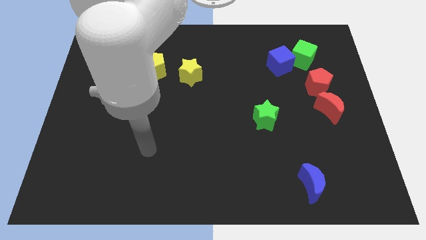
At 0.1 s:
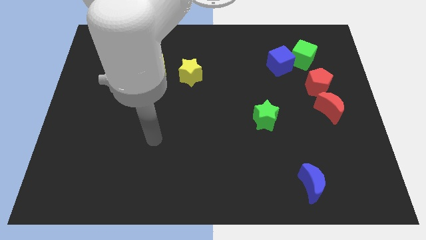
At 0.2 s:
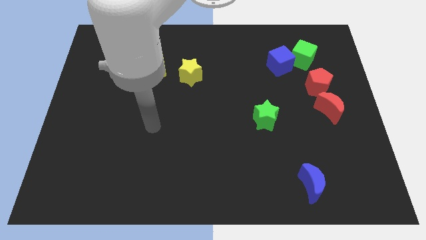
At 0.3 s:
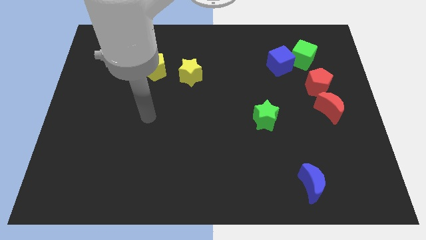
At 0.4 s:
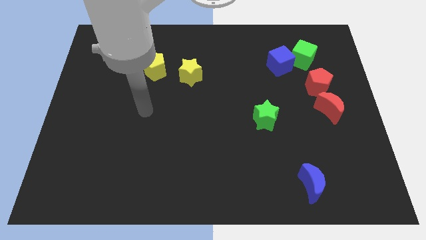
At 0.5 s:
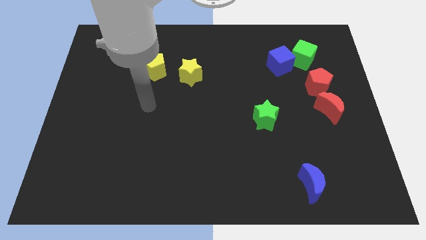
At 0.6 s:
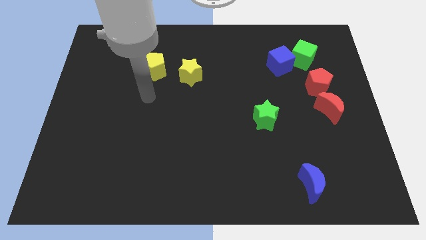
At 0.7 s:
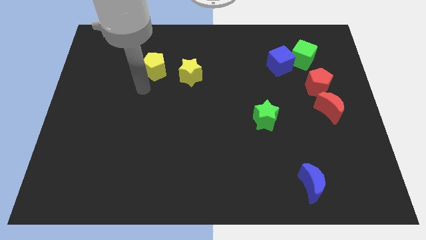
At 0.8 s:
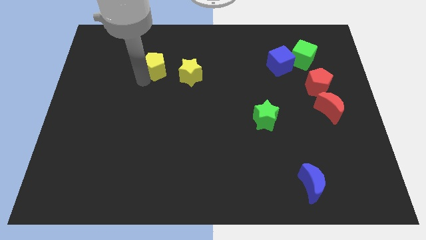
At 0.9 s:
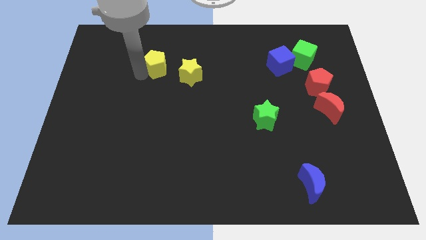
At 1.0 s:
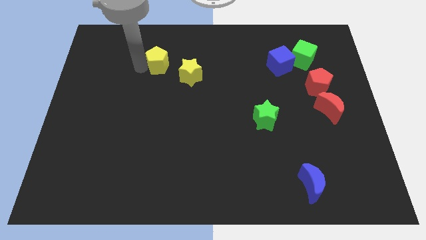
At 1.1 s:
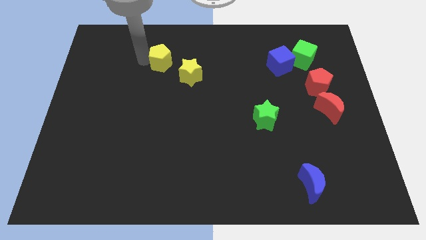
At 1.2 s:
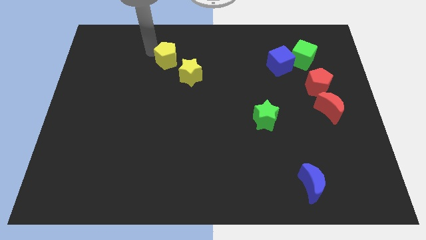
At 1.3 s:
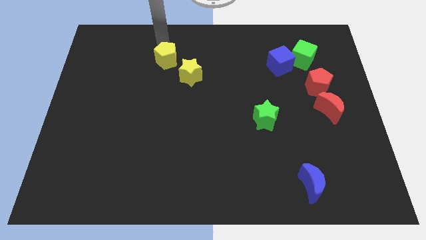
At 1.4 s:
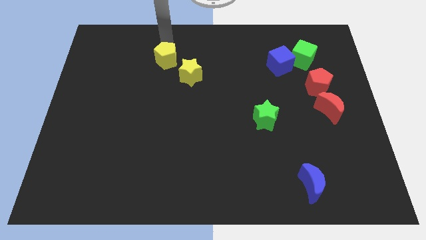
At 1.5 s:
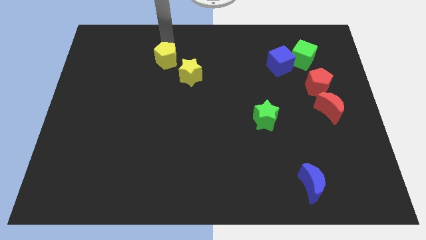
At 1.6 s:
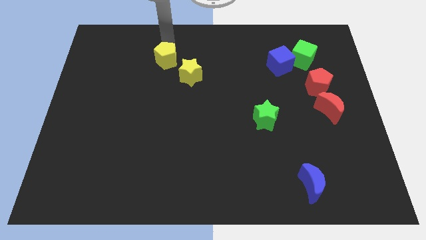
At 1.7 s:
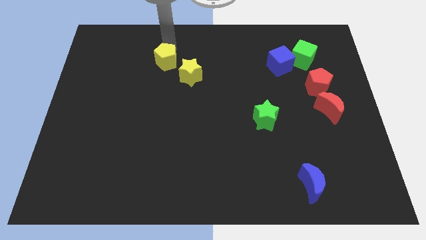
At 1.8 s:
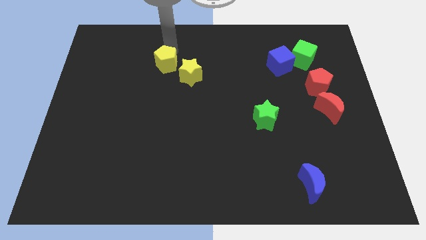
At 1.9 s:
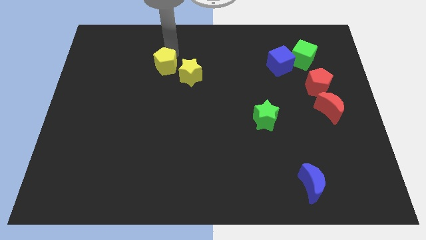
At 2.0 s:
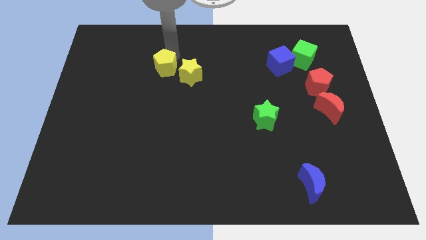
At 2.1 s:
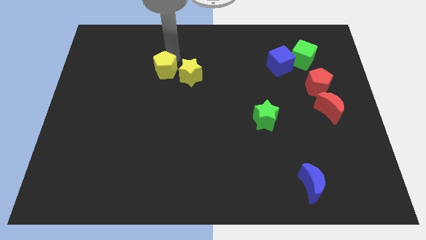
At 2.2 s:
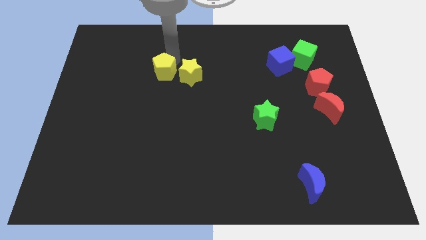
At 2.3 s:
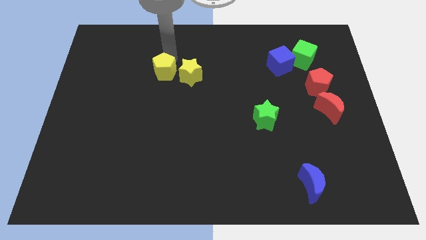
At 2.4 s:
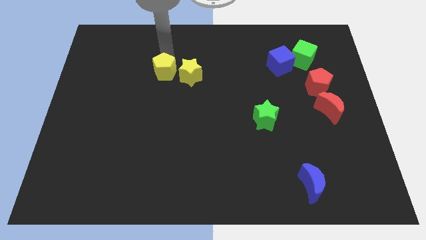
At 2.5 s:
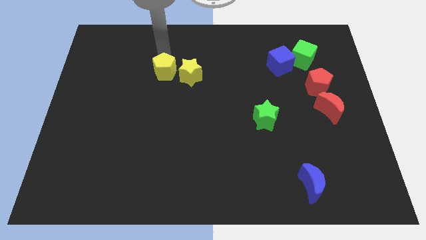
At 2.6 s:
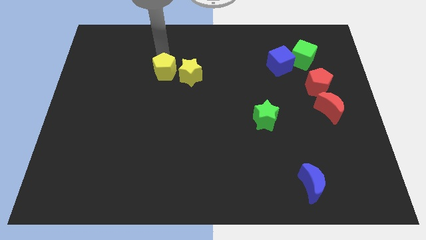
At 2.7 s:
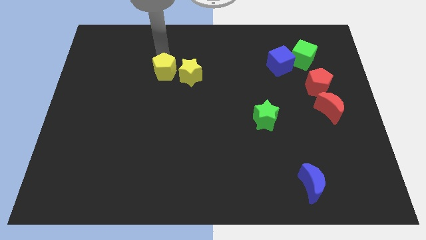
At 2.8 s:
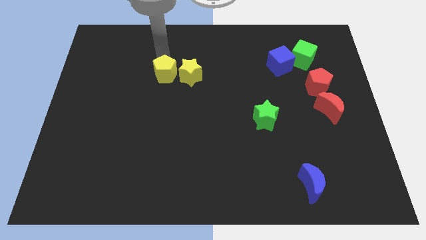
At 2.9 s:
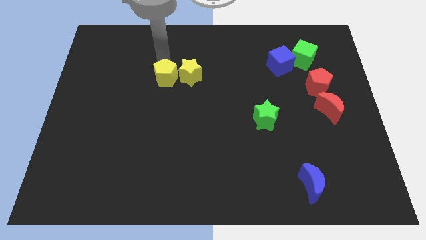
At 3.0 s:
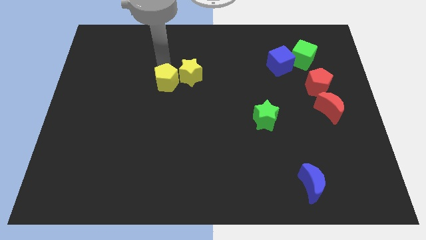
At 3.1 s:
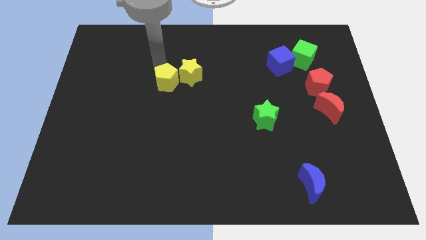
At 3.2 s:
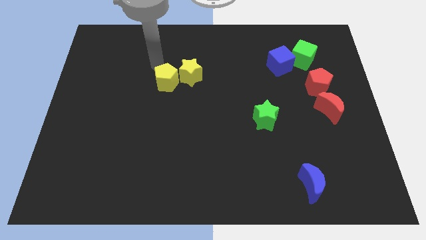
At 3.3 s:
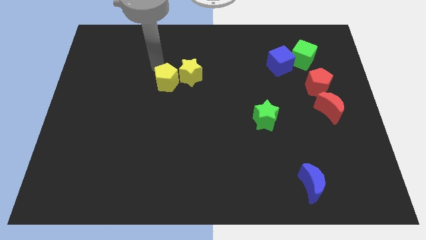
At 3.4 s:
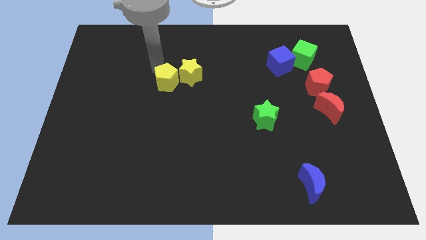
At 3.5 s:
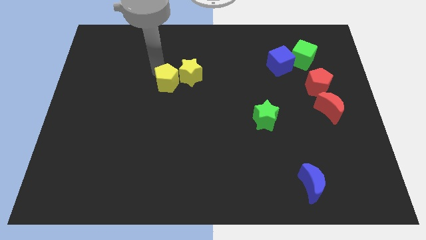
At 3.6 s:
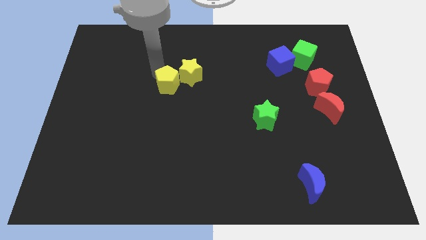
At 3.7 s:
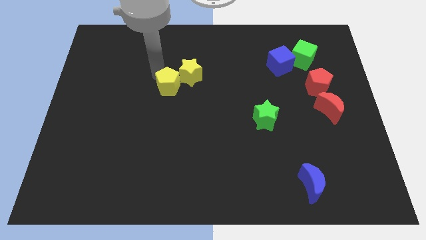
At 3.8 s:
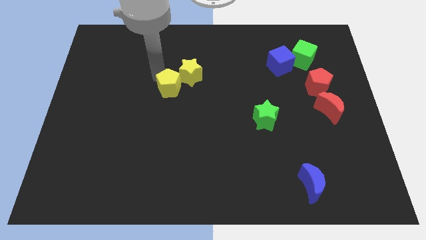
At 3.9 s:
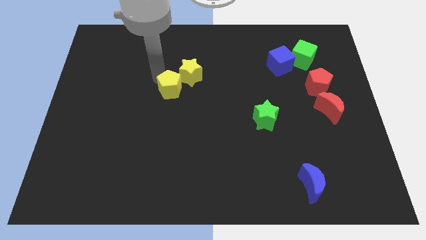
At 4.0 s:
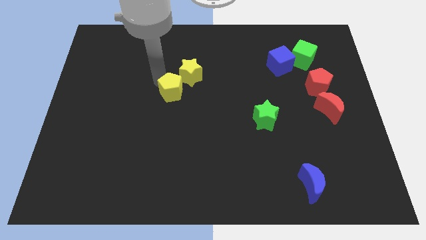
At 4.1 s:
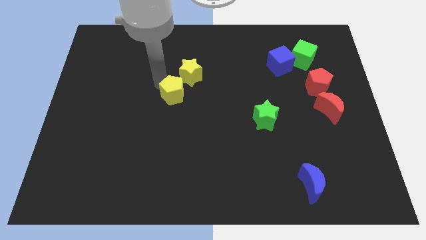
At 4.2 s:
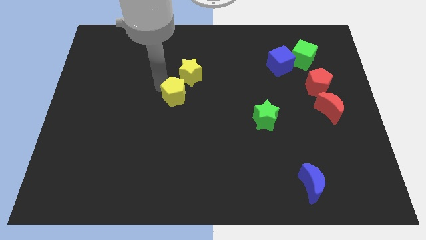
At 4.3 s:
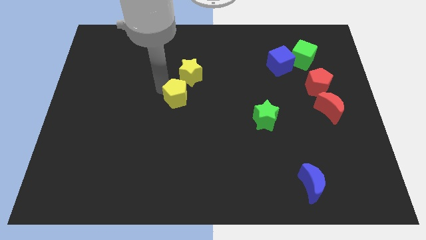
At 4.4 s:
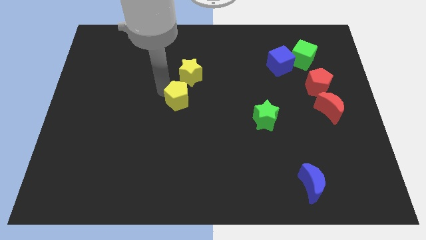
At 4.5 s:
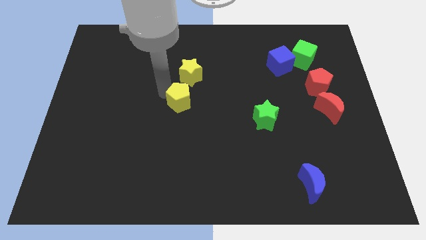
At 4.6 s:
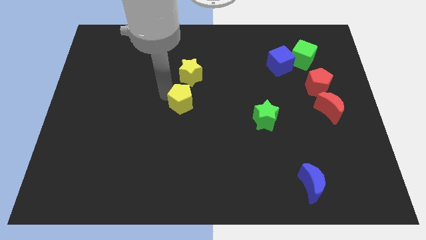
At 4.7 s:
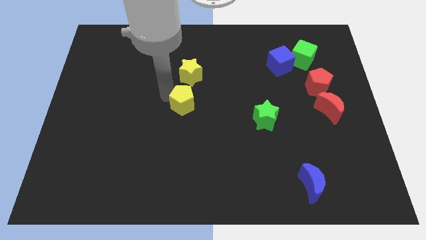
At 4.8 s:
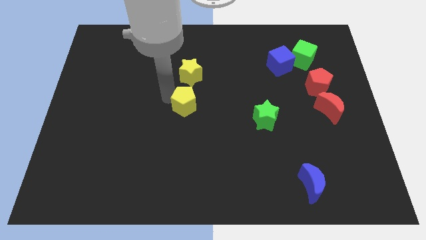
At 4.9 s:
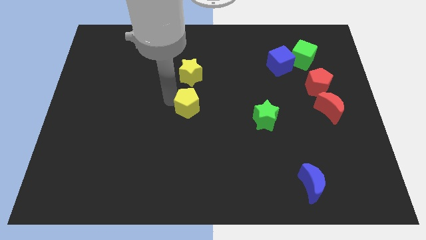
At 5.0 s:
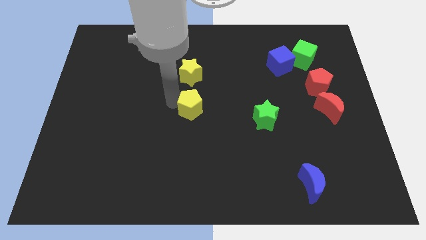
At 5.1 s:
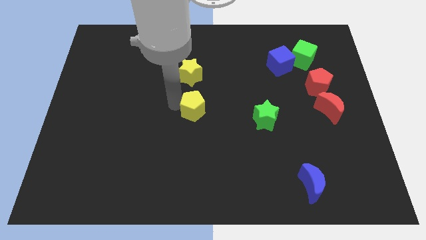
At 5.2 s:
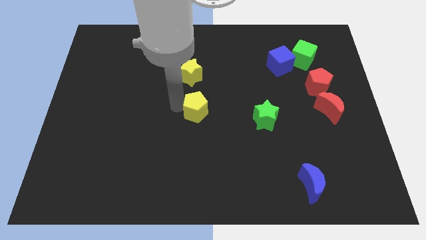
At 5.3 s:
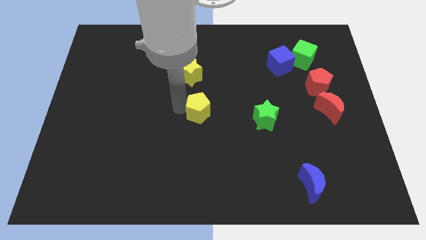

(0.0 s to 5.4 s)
push the yellow pentagon to the left side of the green star

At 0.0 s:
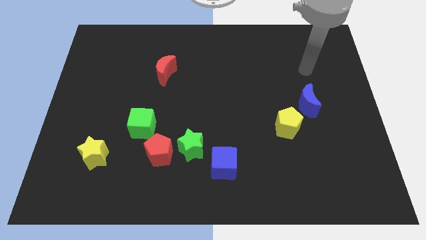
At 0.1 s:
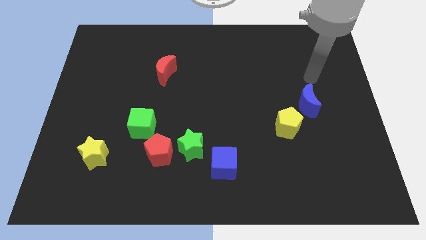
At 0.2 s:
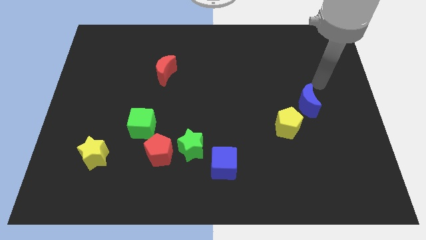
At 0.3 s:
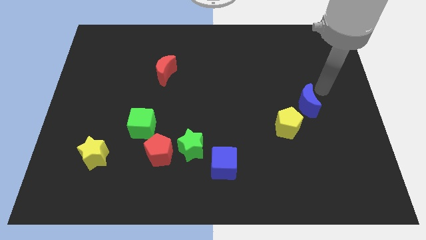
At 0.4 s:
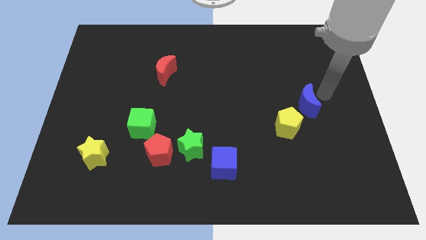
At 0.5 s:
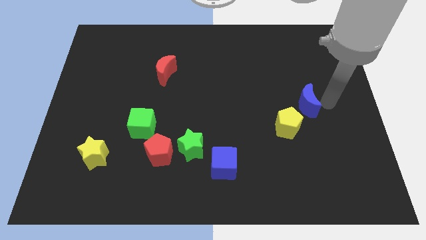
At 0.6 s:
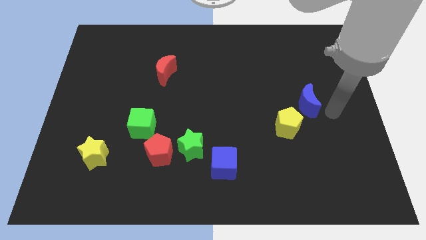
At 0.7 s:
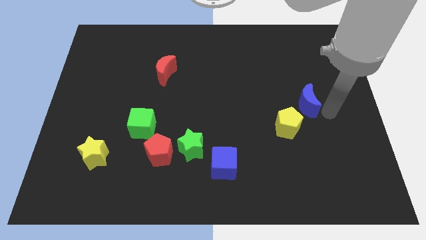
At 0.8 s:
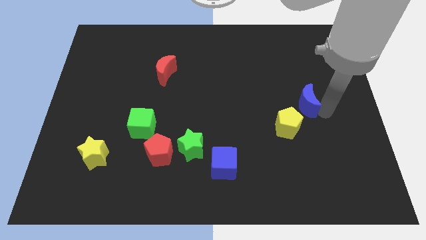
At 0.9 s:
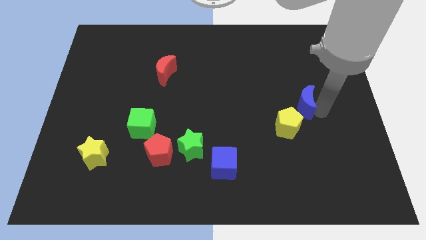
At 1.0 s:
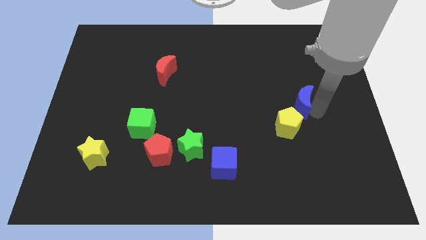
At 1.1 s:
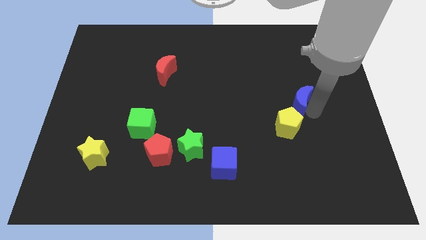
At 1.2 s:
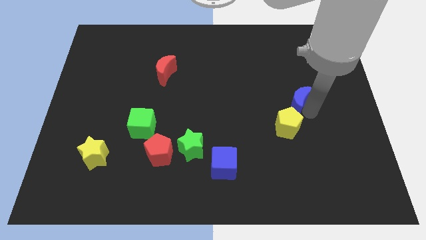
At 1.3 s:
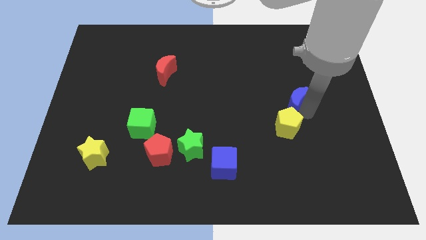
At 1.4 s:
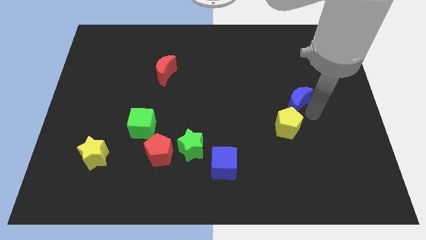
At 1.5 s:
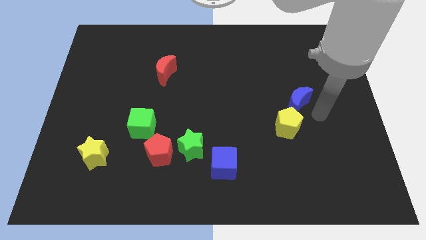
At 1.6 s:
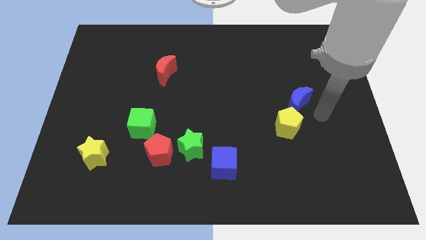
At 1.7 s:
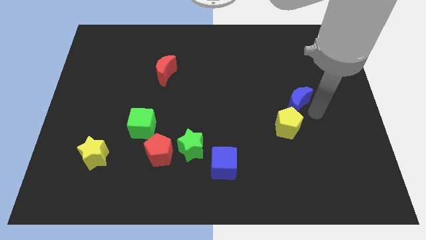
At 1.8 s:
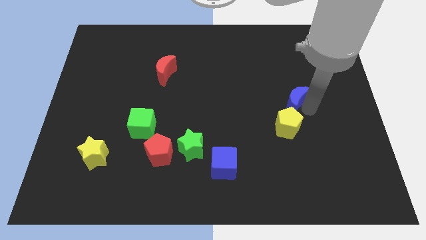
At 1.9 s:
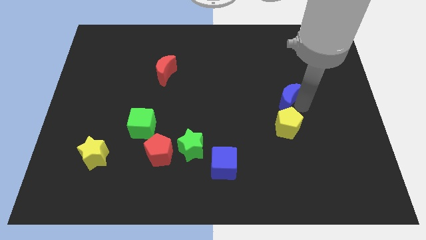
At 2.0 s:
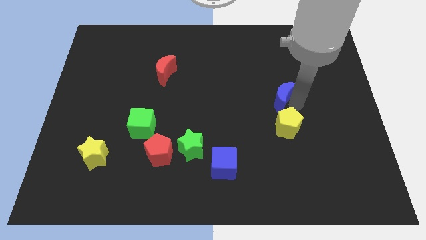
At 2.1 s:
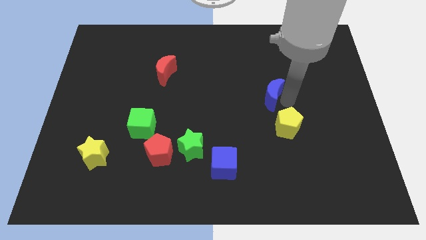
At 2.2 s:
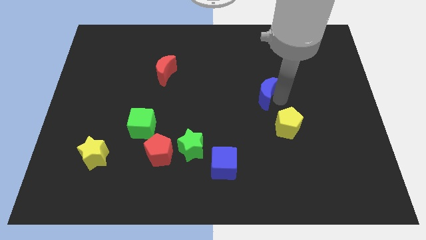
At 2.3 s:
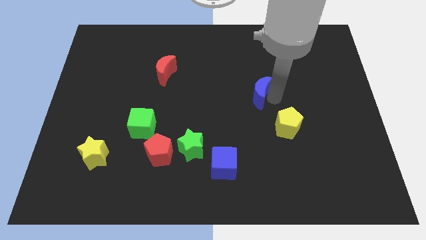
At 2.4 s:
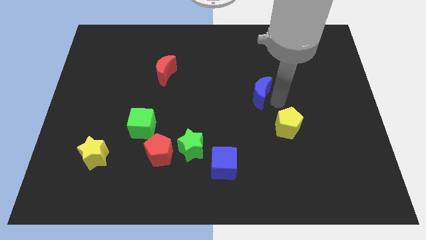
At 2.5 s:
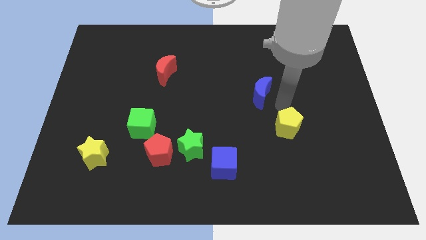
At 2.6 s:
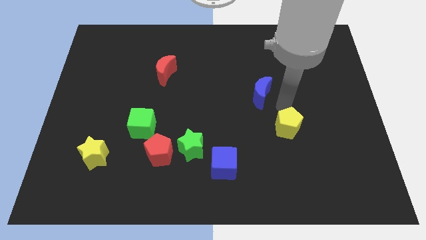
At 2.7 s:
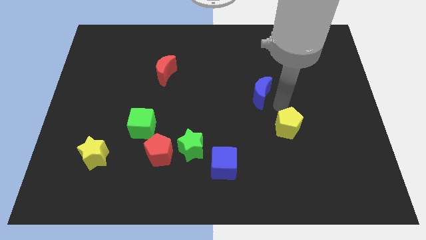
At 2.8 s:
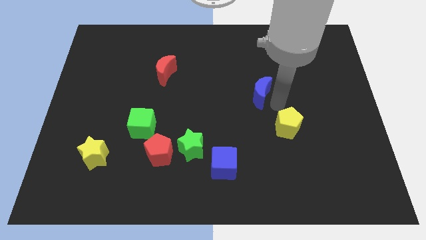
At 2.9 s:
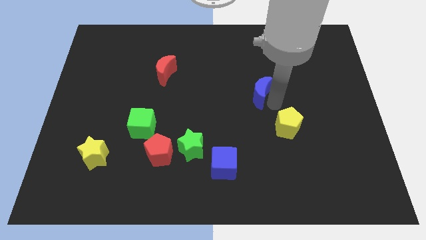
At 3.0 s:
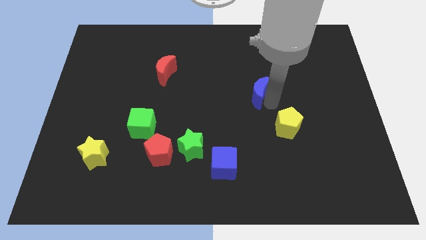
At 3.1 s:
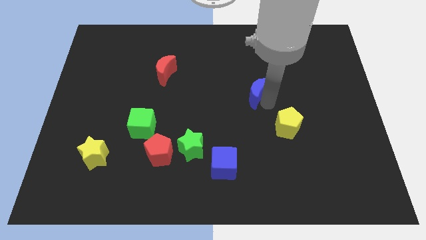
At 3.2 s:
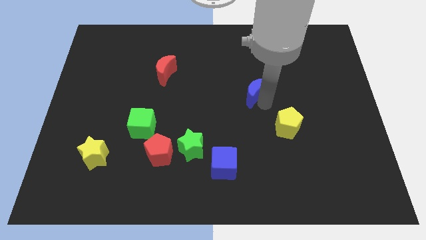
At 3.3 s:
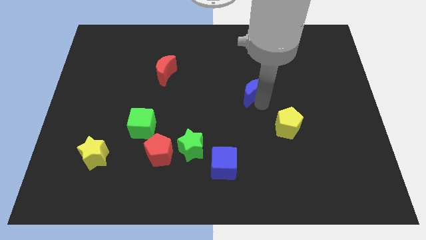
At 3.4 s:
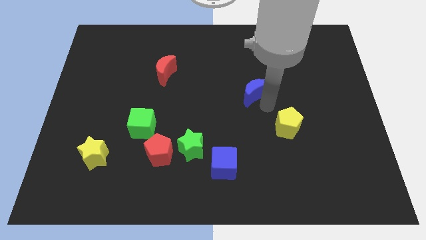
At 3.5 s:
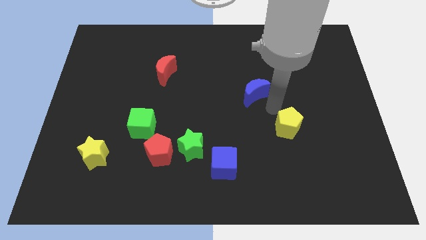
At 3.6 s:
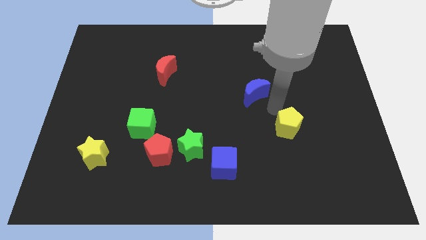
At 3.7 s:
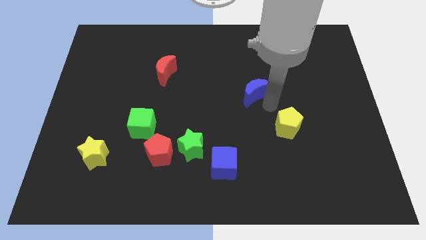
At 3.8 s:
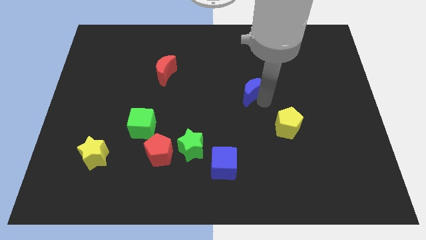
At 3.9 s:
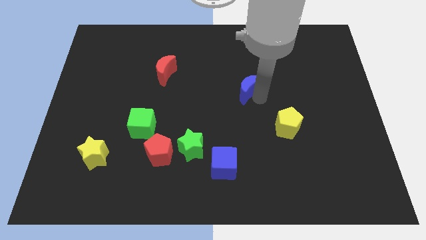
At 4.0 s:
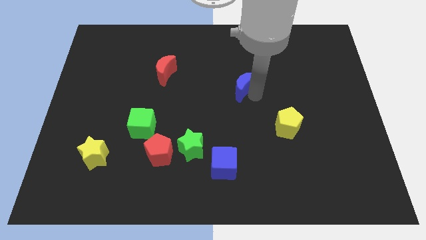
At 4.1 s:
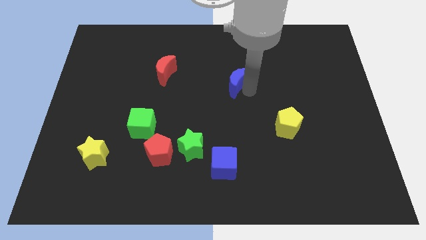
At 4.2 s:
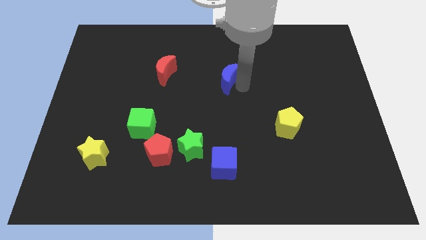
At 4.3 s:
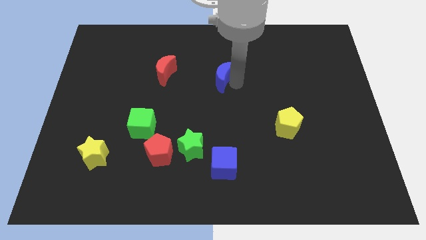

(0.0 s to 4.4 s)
move the blue moon to the right of the red moon
